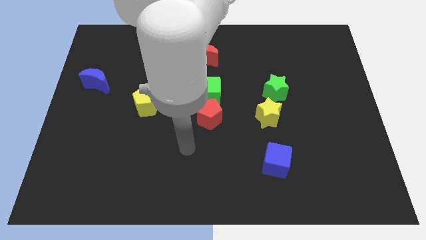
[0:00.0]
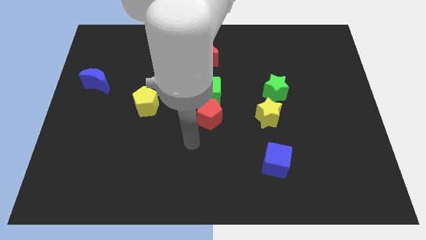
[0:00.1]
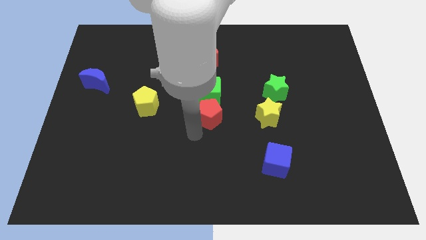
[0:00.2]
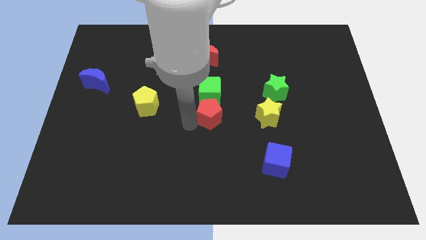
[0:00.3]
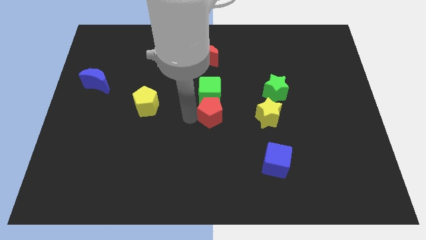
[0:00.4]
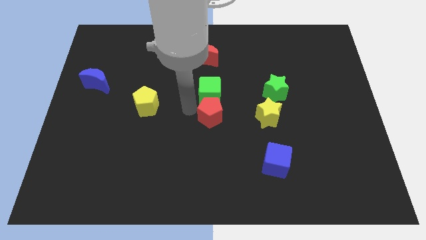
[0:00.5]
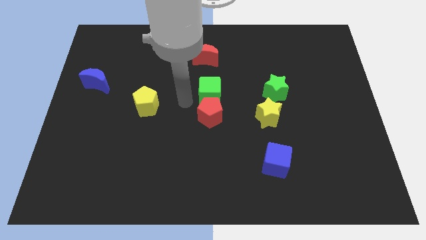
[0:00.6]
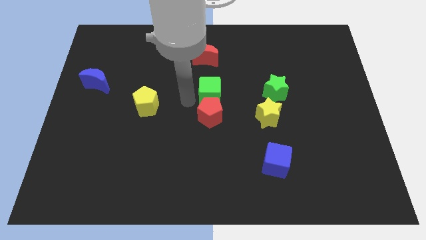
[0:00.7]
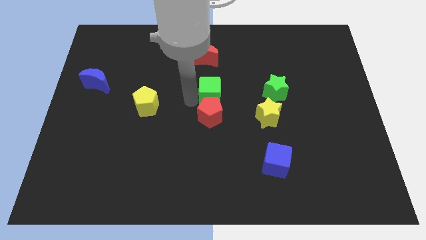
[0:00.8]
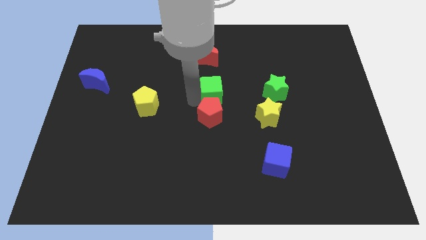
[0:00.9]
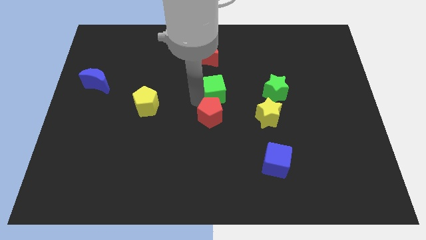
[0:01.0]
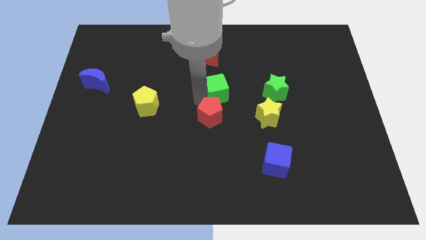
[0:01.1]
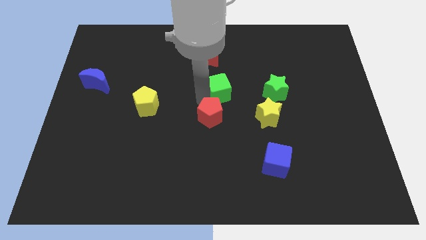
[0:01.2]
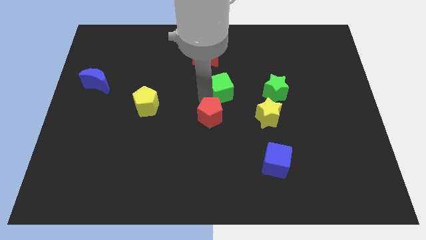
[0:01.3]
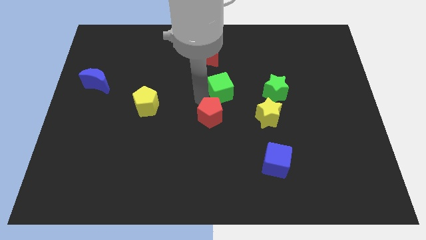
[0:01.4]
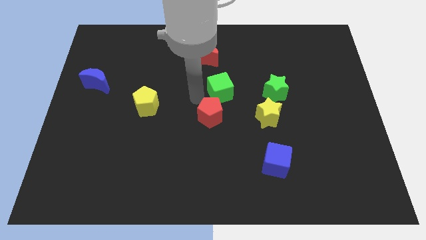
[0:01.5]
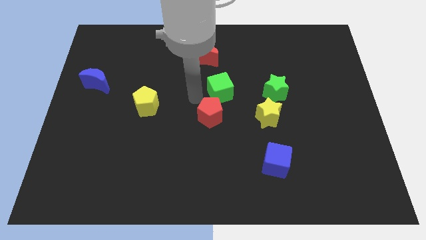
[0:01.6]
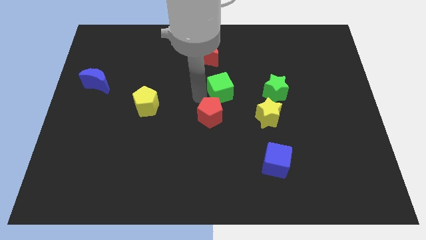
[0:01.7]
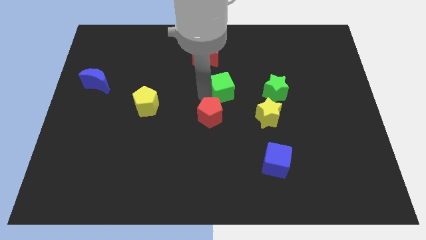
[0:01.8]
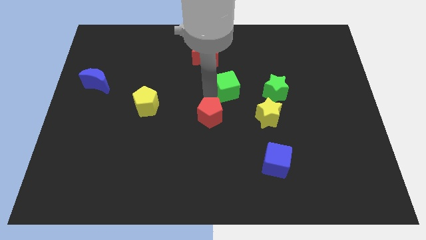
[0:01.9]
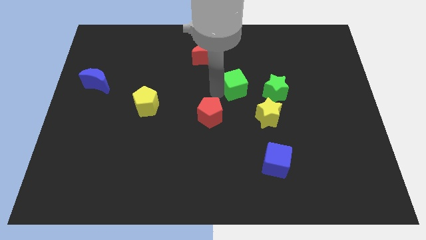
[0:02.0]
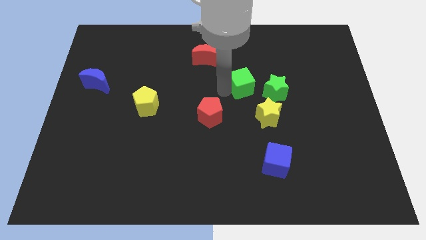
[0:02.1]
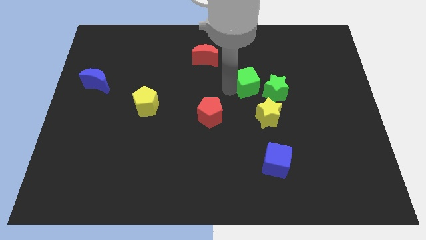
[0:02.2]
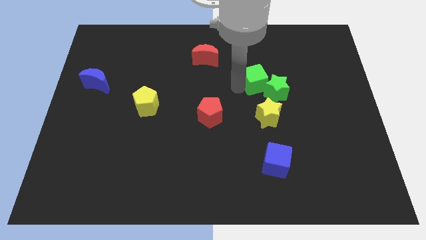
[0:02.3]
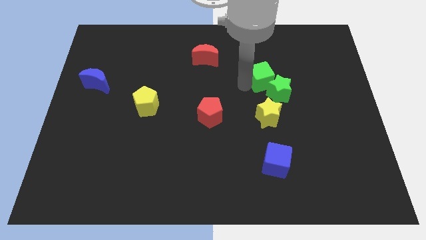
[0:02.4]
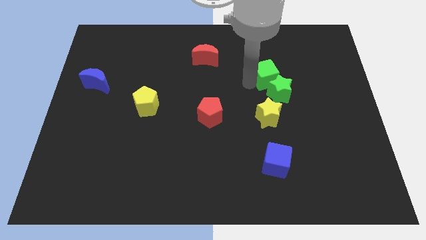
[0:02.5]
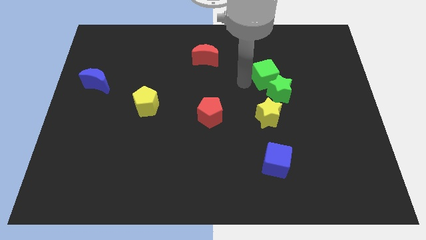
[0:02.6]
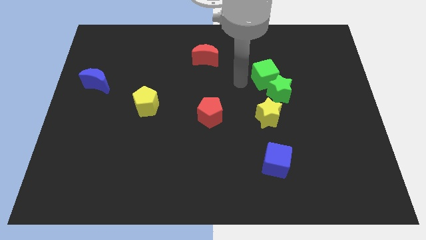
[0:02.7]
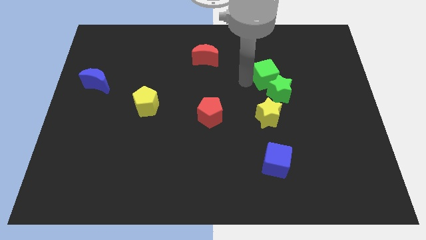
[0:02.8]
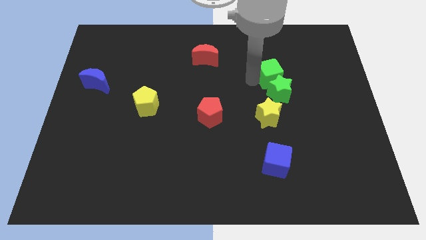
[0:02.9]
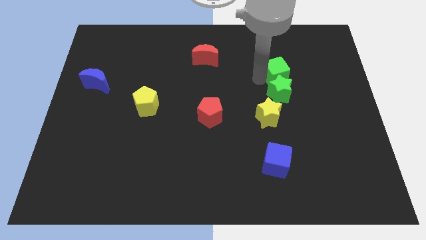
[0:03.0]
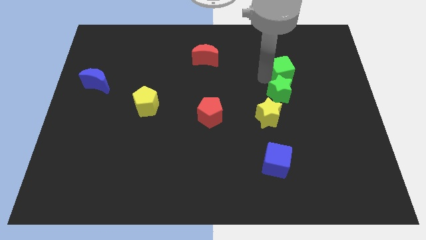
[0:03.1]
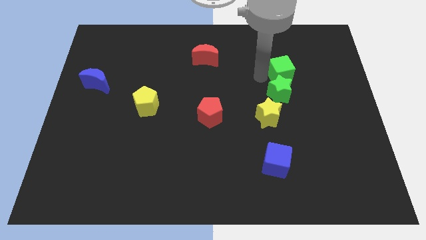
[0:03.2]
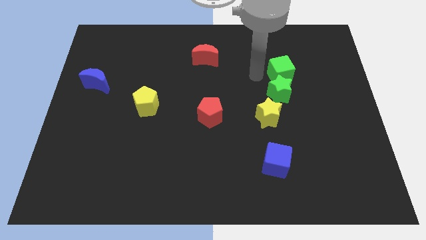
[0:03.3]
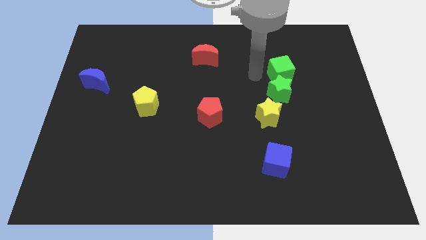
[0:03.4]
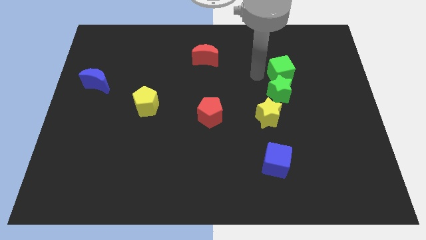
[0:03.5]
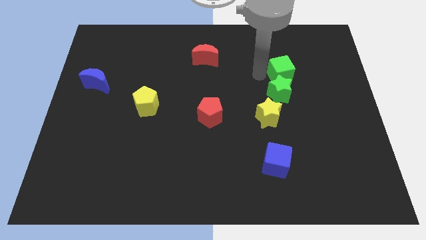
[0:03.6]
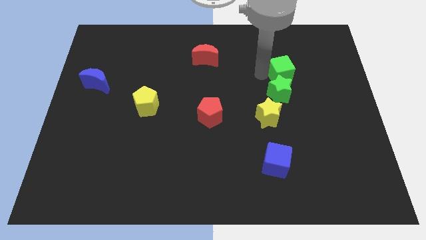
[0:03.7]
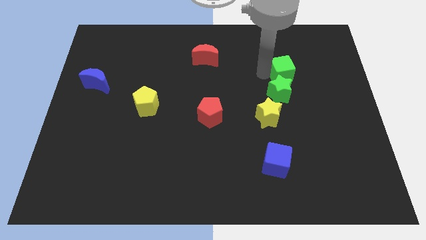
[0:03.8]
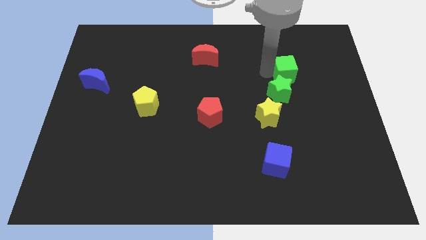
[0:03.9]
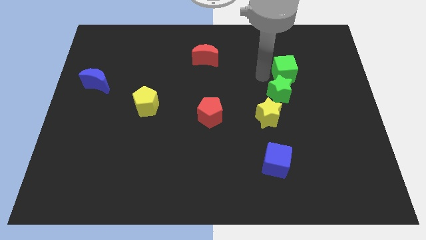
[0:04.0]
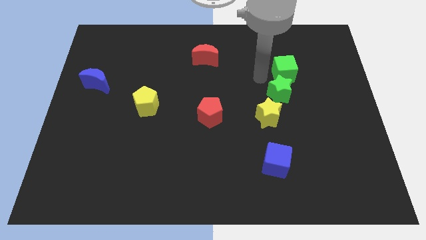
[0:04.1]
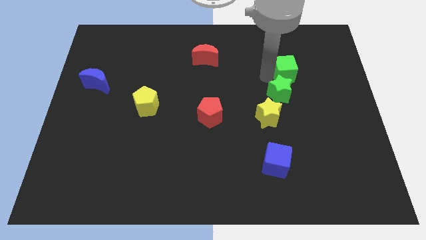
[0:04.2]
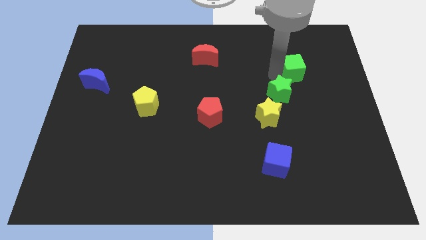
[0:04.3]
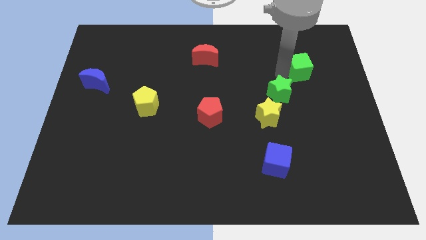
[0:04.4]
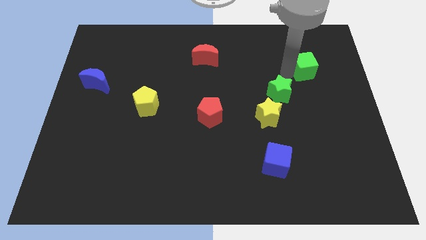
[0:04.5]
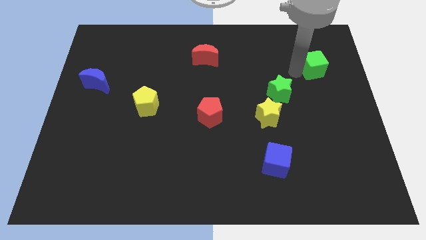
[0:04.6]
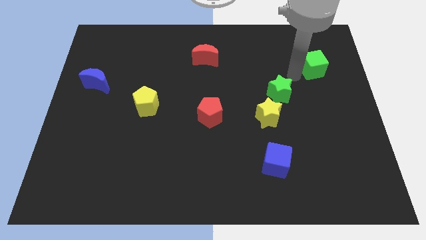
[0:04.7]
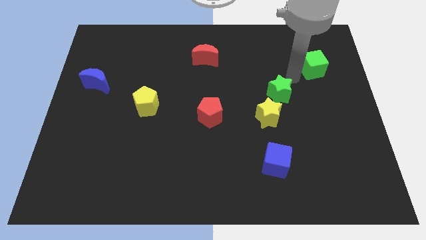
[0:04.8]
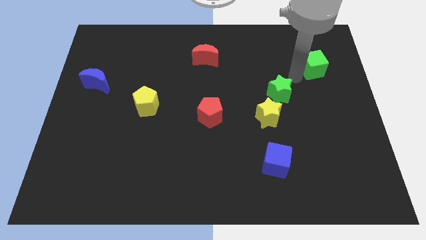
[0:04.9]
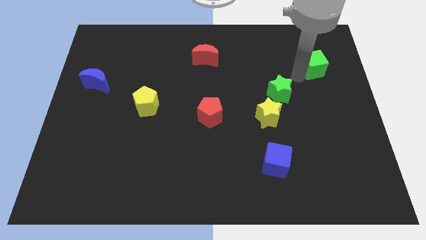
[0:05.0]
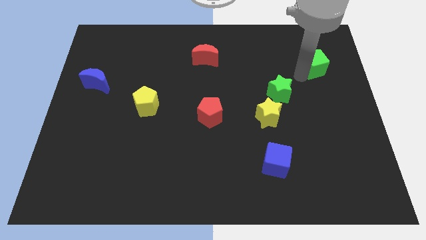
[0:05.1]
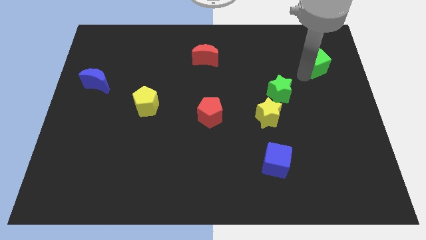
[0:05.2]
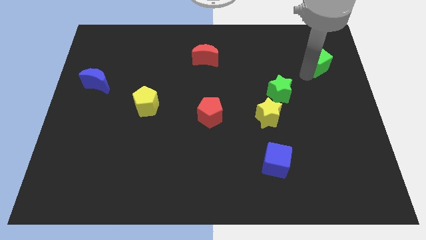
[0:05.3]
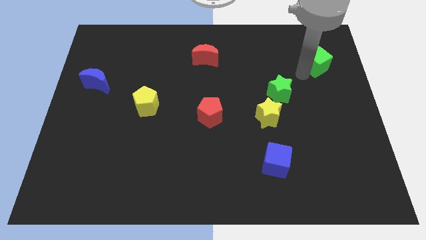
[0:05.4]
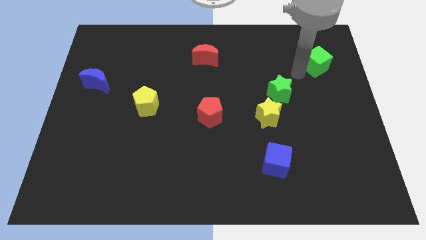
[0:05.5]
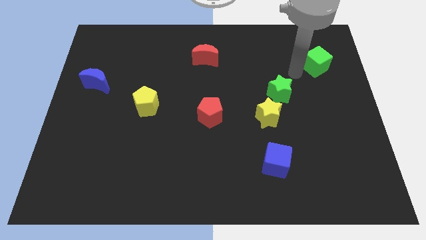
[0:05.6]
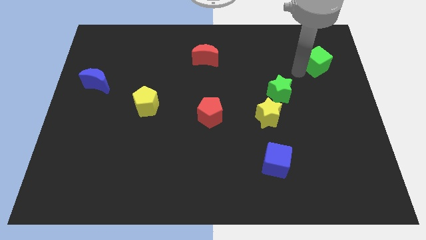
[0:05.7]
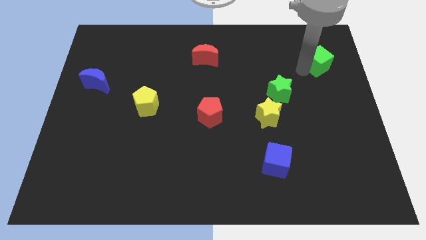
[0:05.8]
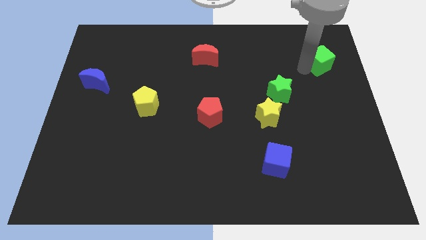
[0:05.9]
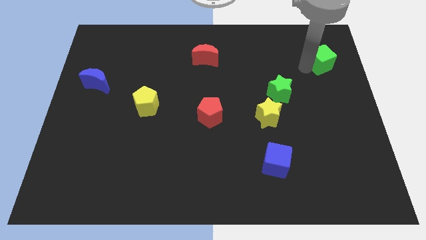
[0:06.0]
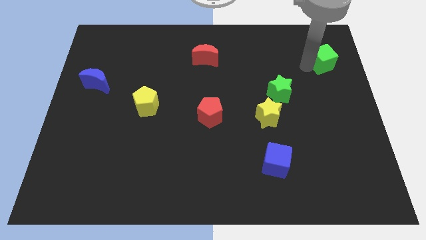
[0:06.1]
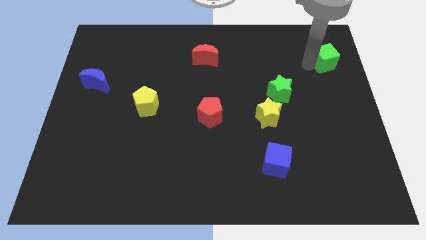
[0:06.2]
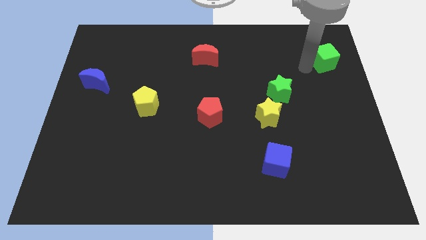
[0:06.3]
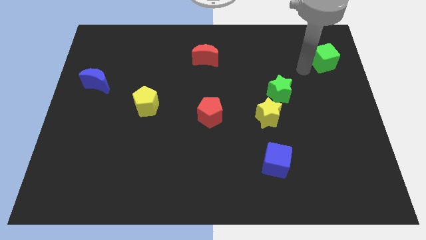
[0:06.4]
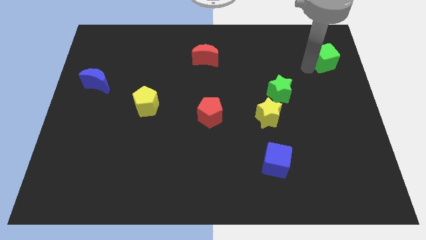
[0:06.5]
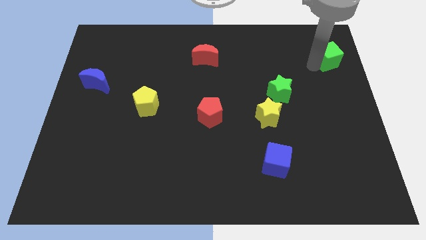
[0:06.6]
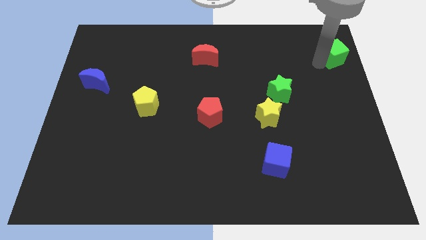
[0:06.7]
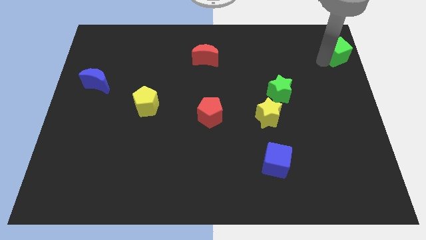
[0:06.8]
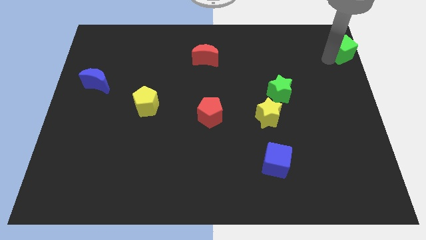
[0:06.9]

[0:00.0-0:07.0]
put the green cube to the top right of the board
